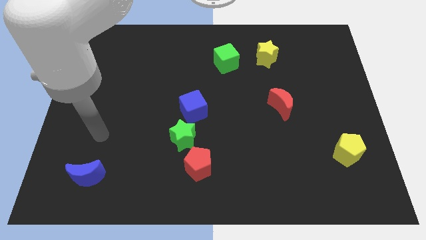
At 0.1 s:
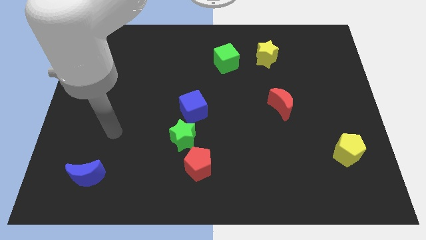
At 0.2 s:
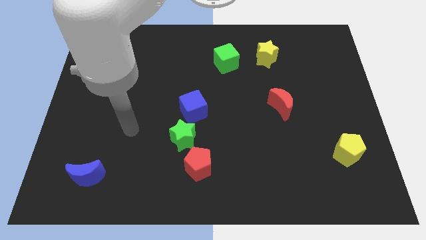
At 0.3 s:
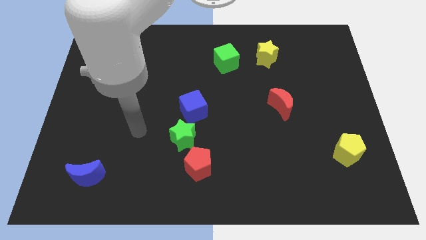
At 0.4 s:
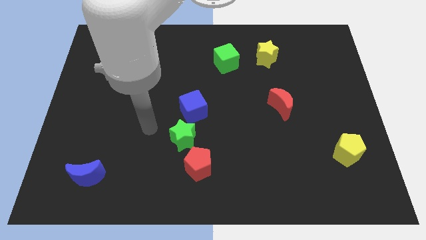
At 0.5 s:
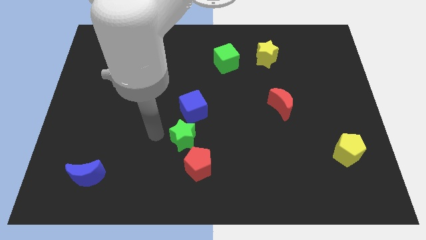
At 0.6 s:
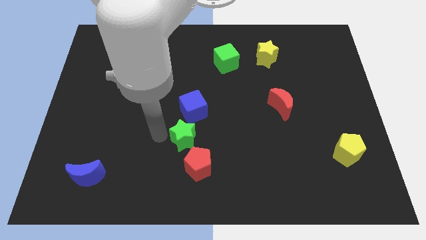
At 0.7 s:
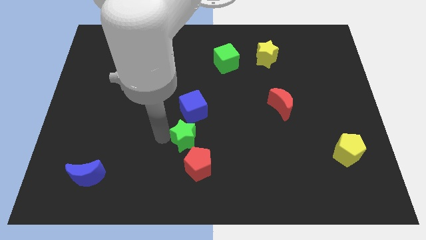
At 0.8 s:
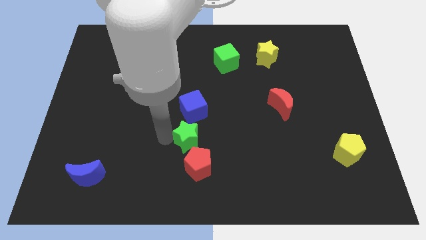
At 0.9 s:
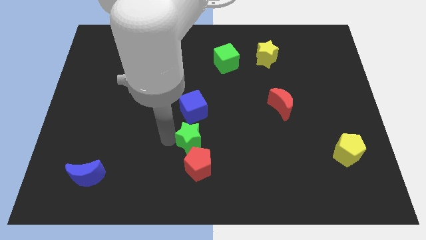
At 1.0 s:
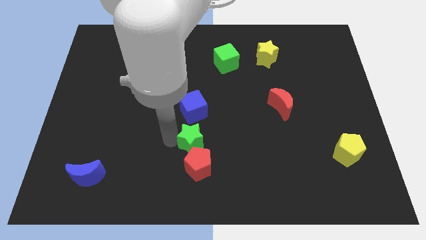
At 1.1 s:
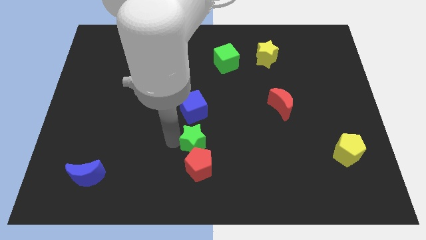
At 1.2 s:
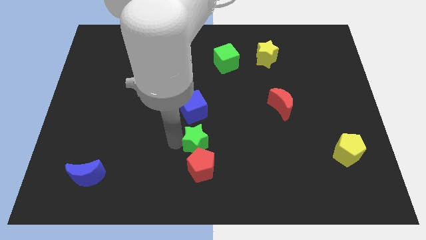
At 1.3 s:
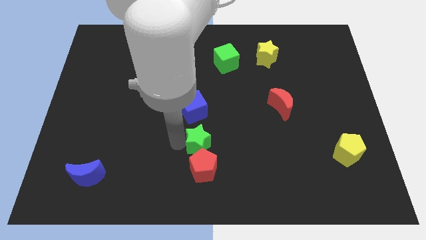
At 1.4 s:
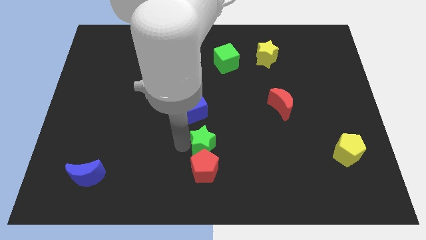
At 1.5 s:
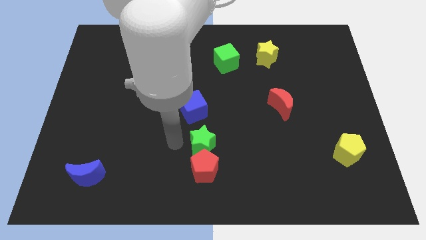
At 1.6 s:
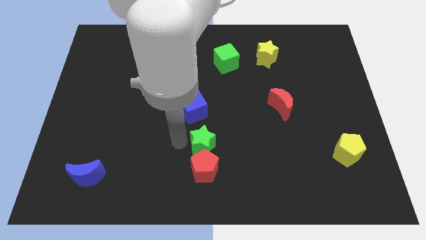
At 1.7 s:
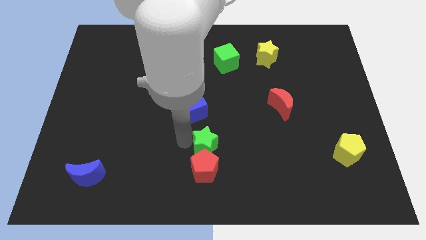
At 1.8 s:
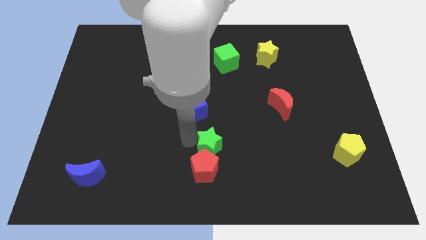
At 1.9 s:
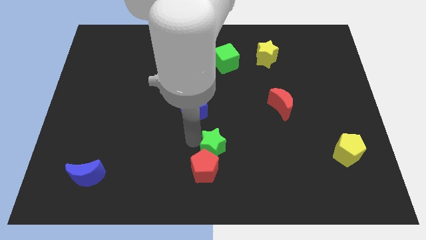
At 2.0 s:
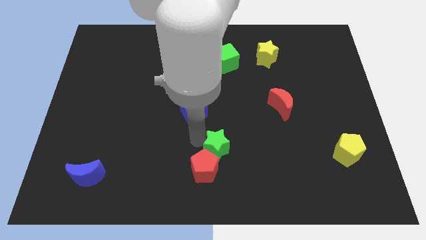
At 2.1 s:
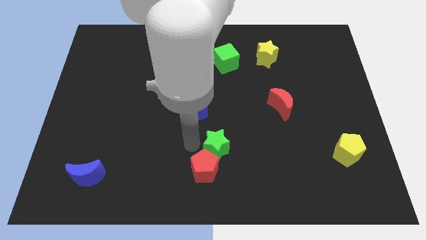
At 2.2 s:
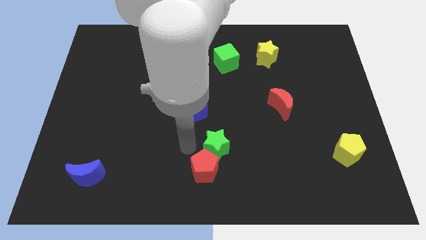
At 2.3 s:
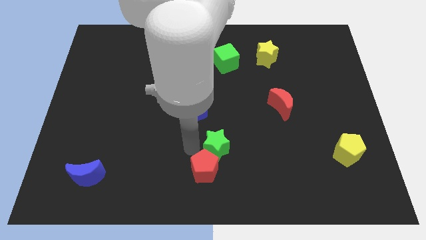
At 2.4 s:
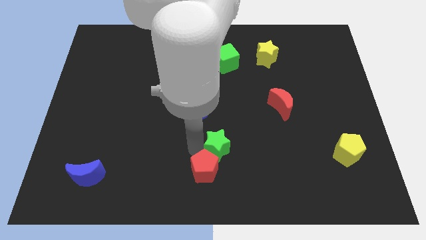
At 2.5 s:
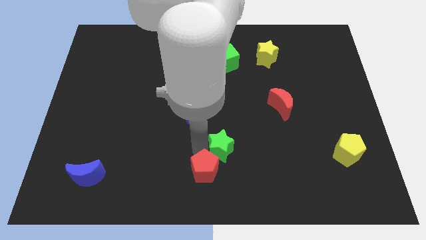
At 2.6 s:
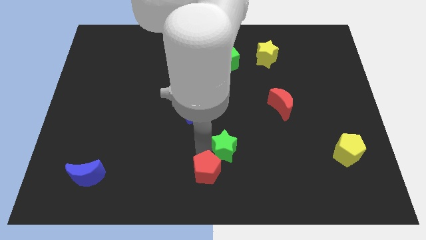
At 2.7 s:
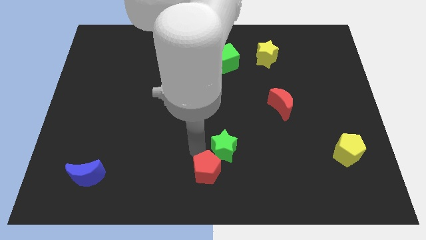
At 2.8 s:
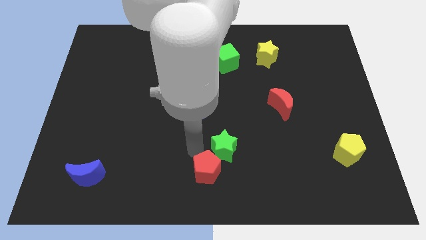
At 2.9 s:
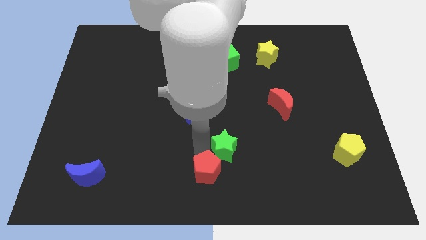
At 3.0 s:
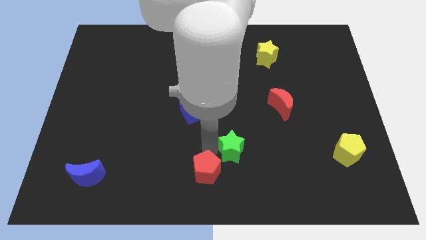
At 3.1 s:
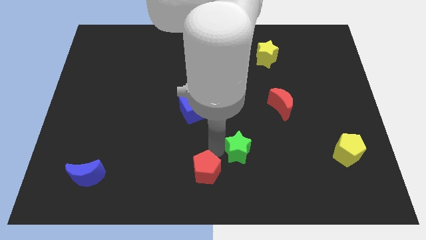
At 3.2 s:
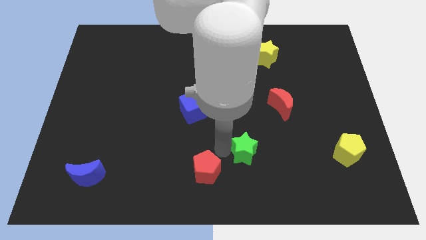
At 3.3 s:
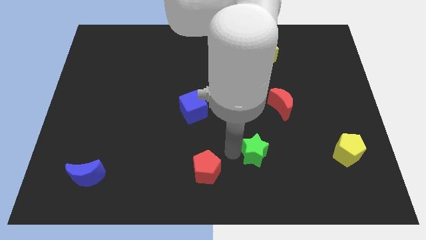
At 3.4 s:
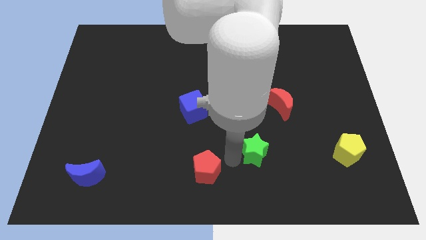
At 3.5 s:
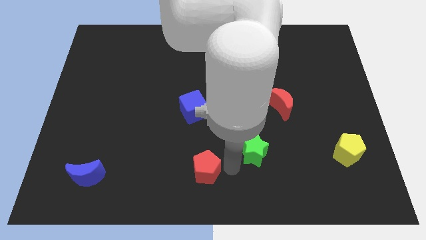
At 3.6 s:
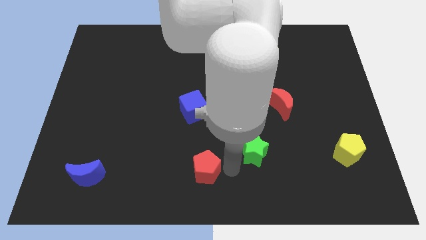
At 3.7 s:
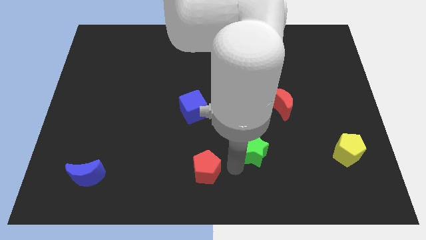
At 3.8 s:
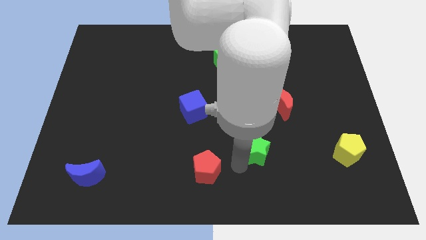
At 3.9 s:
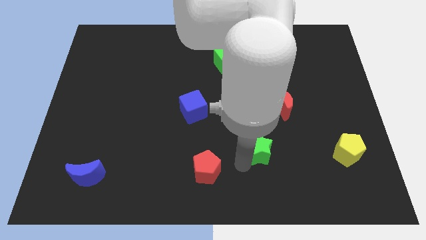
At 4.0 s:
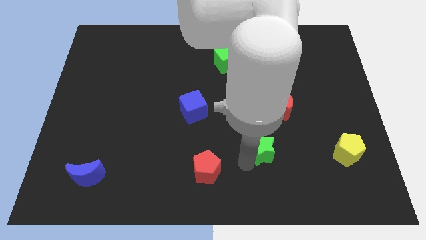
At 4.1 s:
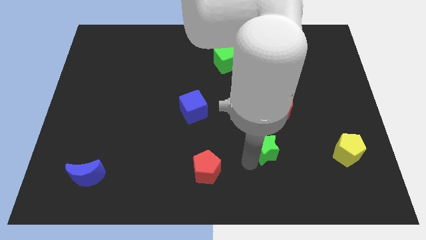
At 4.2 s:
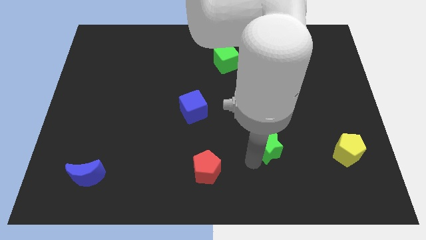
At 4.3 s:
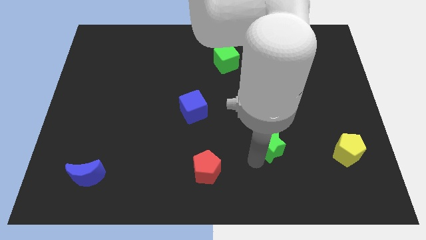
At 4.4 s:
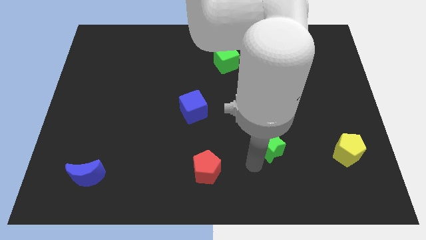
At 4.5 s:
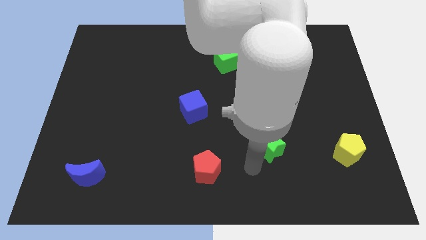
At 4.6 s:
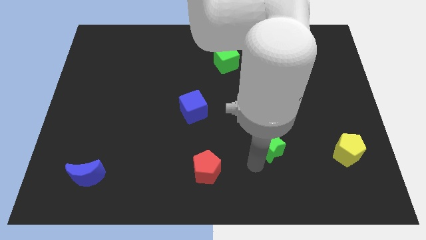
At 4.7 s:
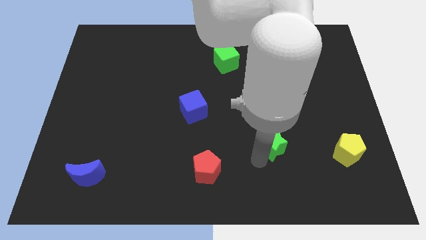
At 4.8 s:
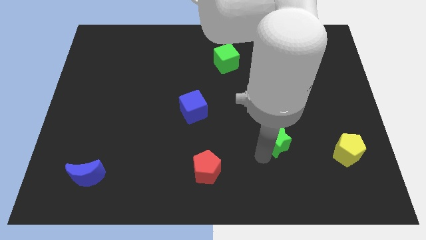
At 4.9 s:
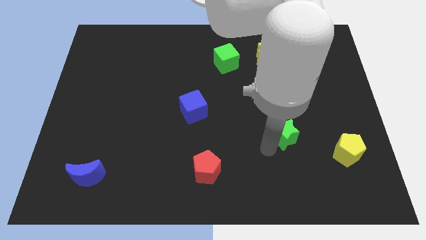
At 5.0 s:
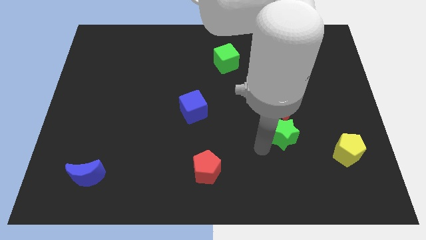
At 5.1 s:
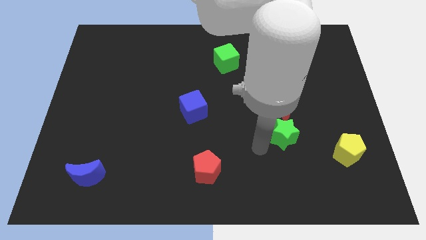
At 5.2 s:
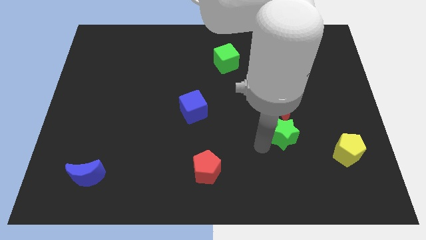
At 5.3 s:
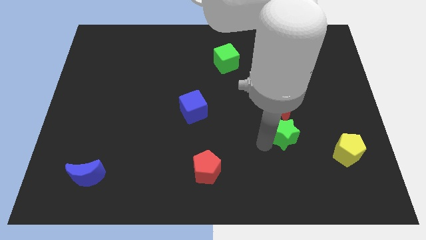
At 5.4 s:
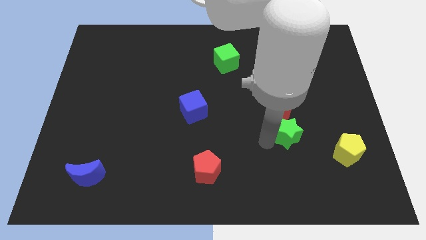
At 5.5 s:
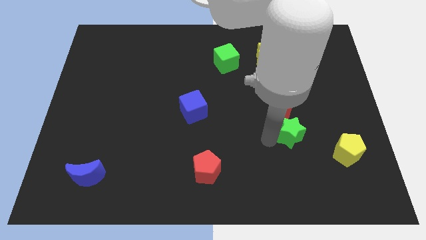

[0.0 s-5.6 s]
slide the green star to the bottom right side of the red moon
